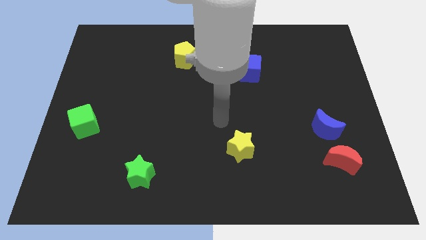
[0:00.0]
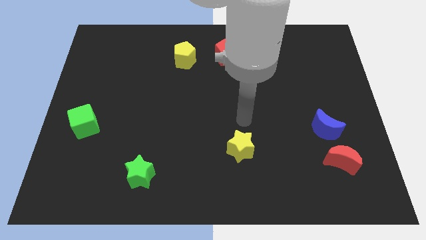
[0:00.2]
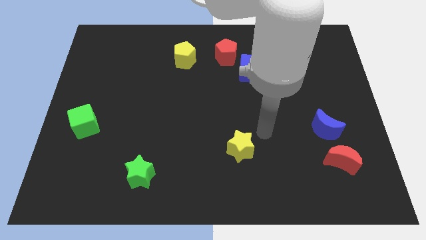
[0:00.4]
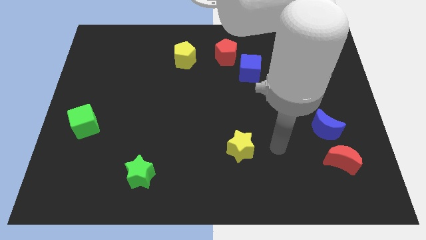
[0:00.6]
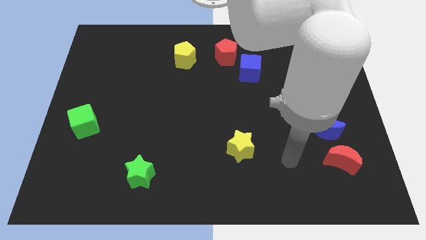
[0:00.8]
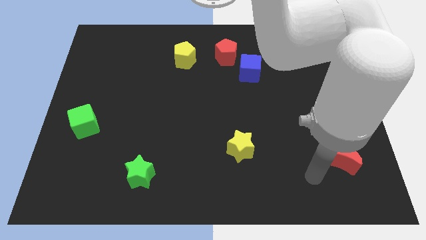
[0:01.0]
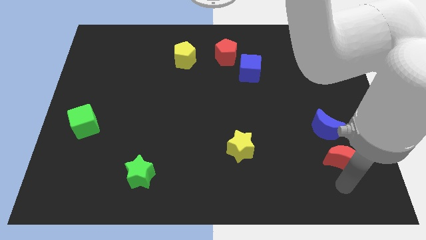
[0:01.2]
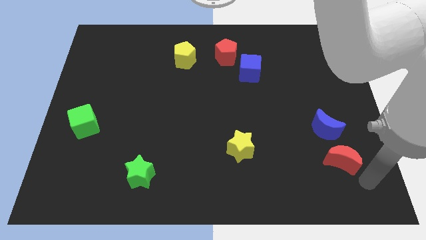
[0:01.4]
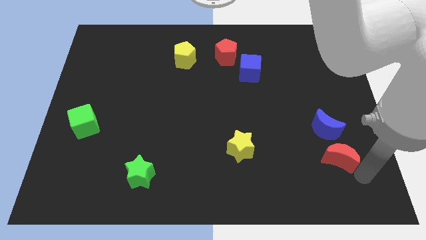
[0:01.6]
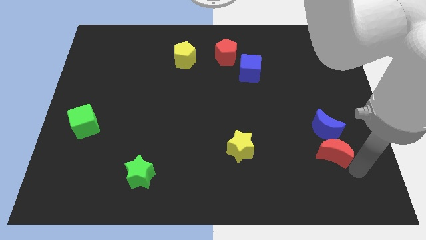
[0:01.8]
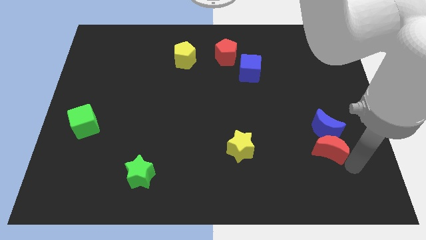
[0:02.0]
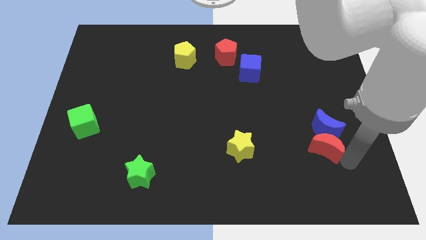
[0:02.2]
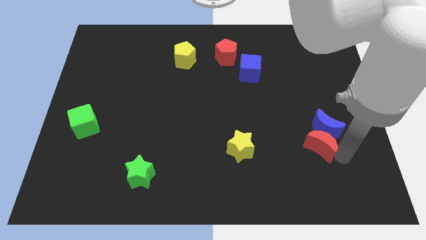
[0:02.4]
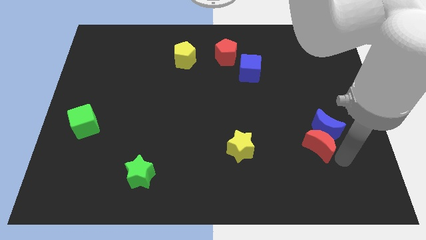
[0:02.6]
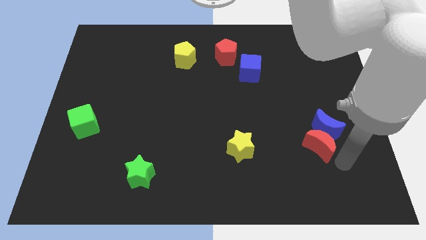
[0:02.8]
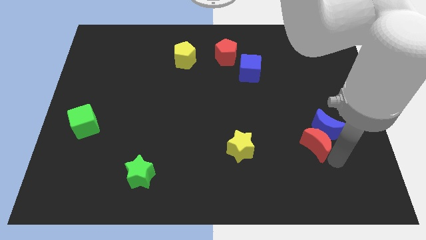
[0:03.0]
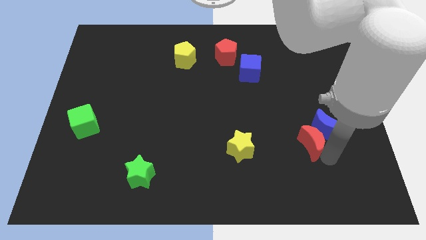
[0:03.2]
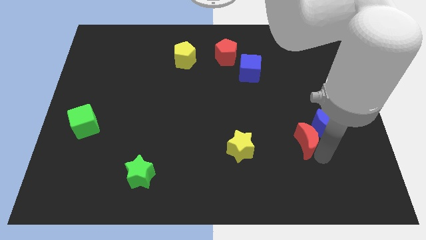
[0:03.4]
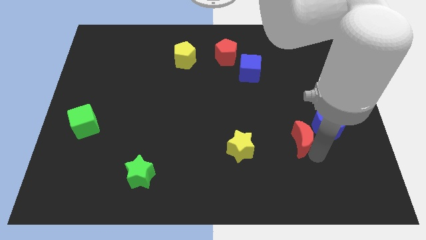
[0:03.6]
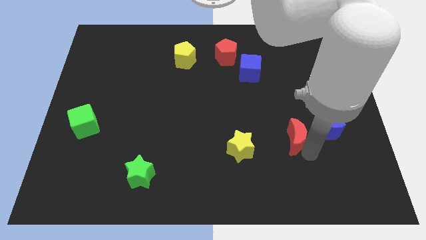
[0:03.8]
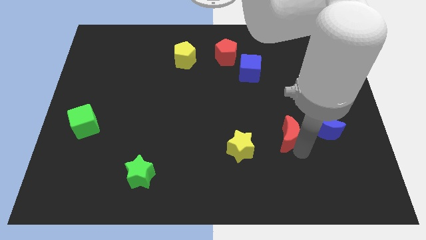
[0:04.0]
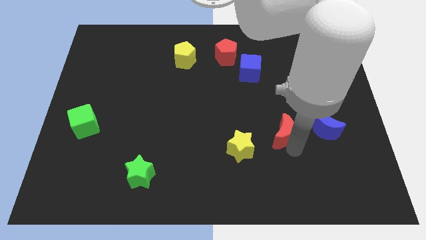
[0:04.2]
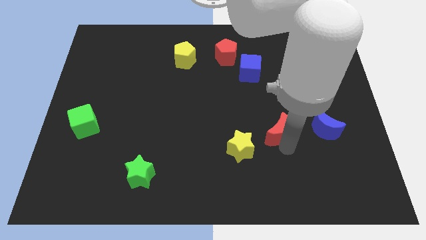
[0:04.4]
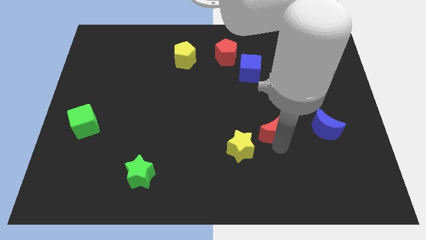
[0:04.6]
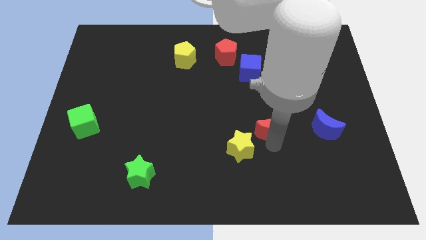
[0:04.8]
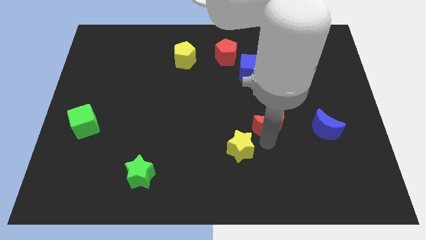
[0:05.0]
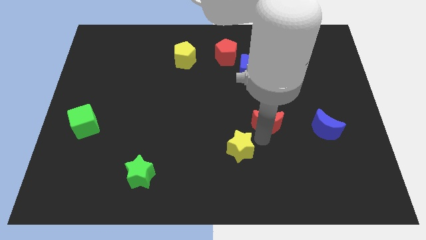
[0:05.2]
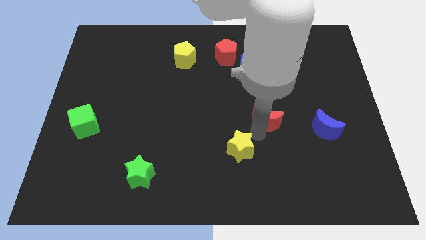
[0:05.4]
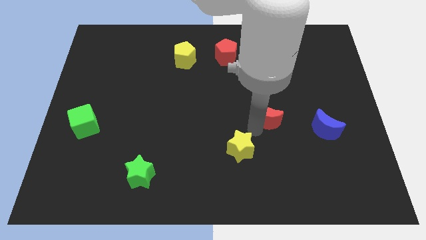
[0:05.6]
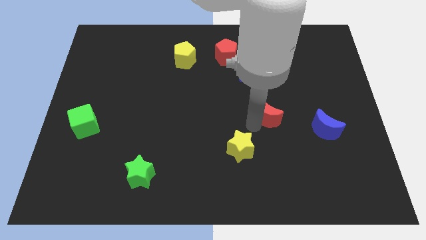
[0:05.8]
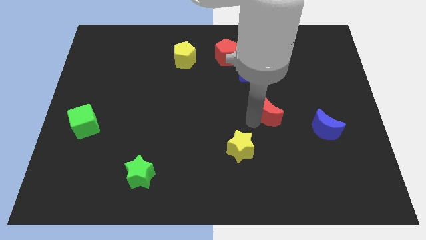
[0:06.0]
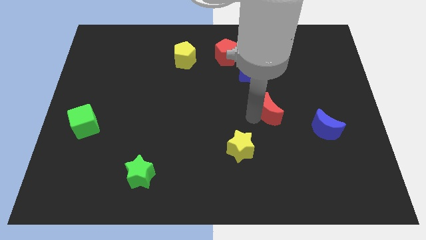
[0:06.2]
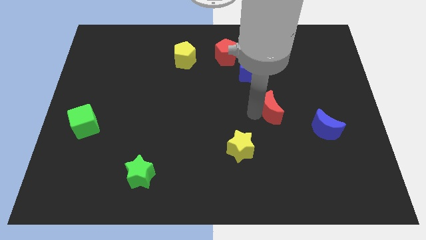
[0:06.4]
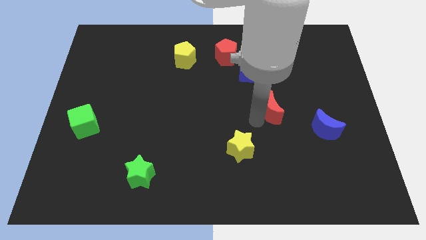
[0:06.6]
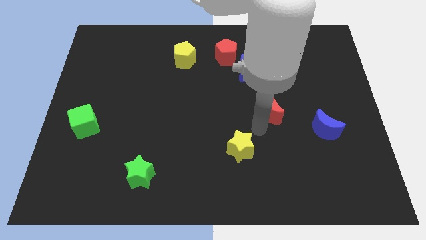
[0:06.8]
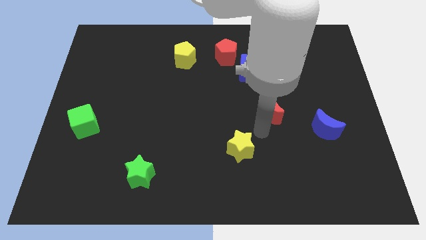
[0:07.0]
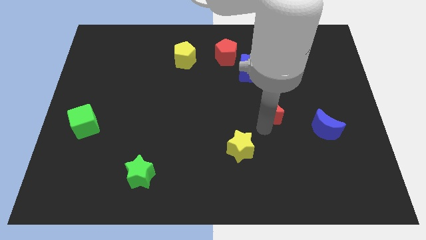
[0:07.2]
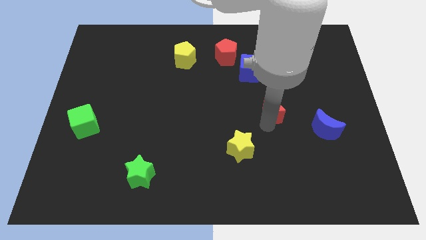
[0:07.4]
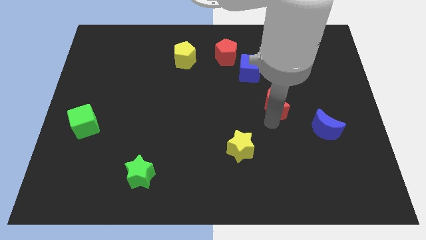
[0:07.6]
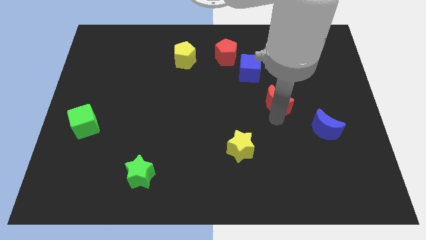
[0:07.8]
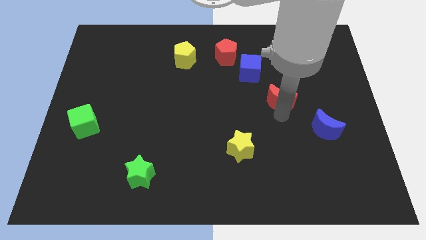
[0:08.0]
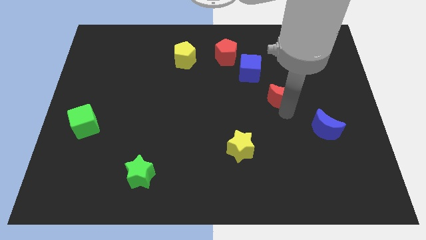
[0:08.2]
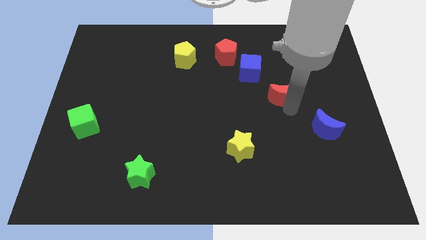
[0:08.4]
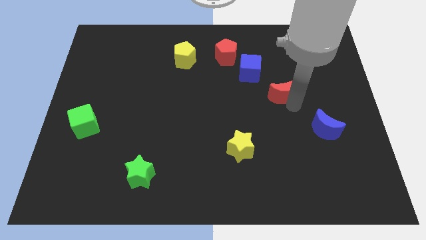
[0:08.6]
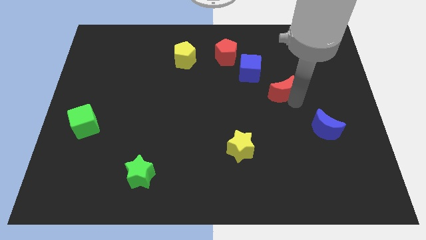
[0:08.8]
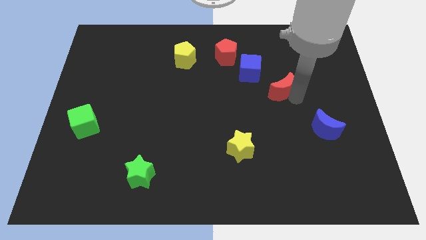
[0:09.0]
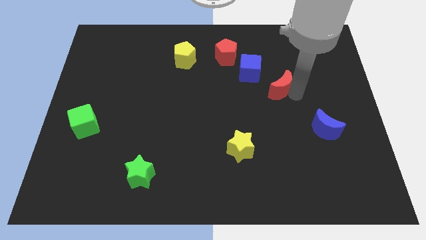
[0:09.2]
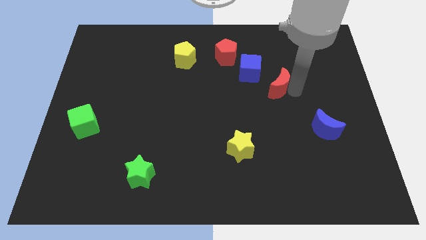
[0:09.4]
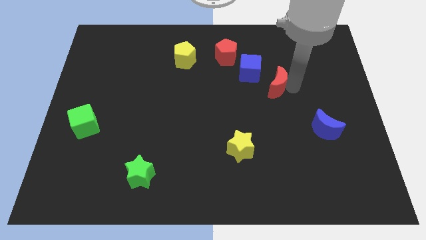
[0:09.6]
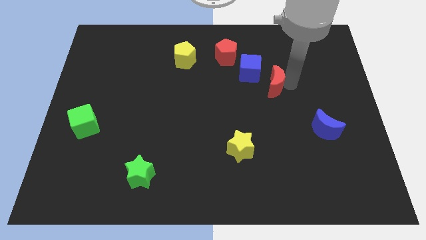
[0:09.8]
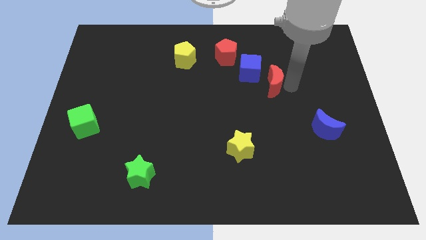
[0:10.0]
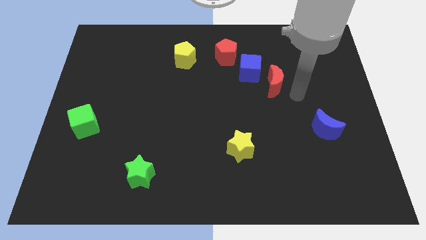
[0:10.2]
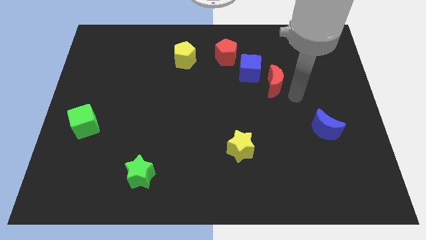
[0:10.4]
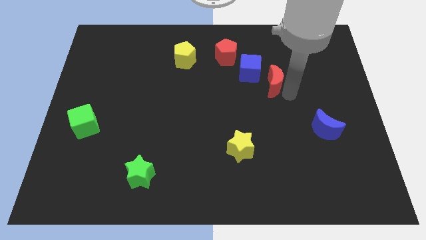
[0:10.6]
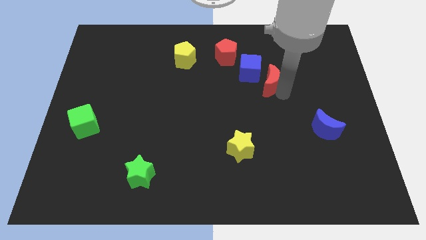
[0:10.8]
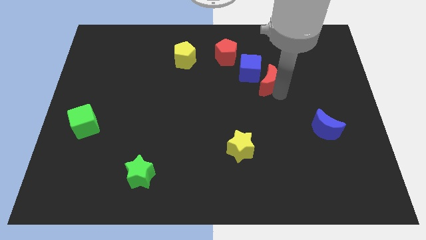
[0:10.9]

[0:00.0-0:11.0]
push the red moon towards the blue cube

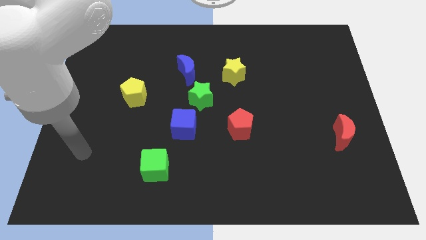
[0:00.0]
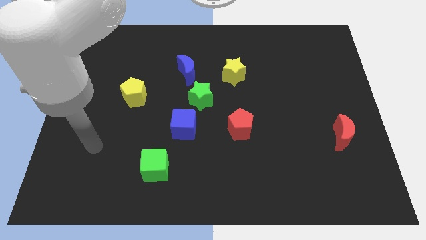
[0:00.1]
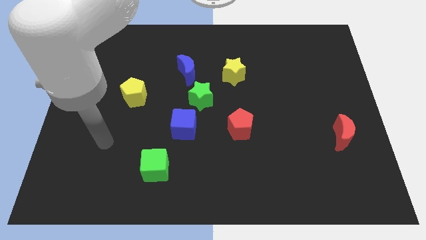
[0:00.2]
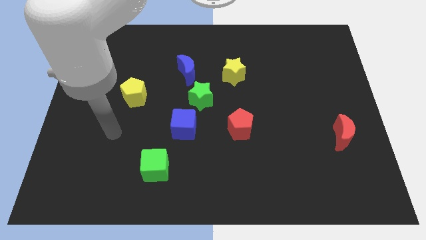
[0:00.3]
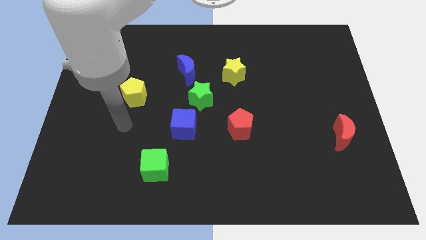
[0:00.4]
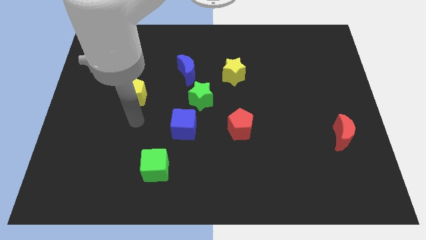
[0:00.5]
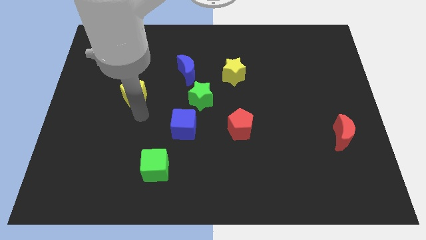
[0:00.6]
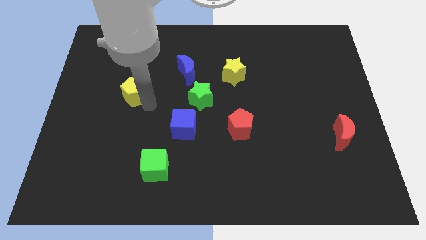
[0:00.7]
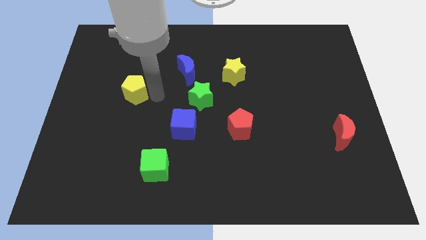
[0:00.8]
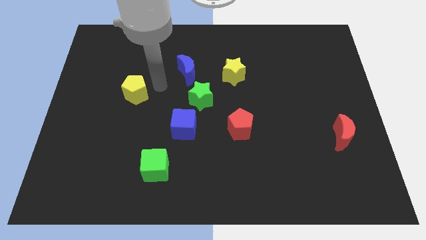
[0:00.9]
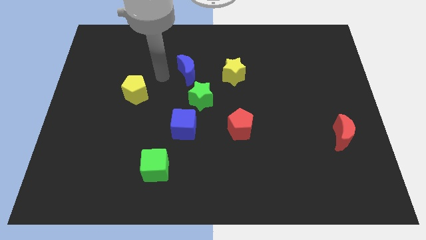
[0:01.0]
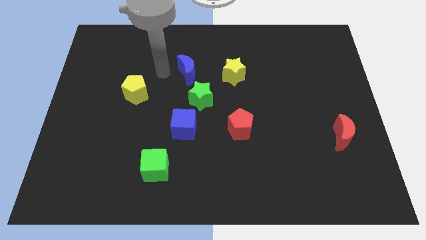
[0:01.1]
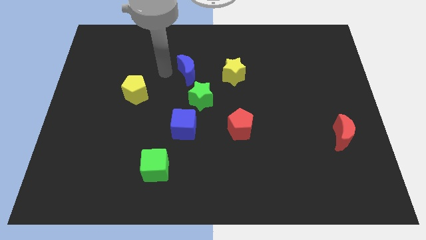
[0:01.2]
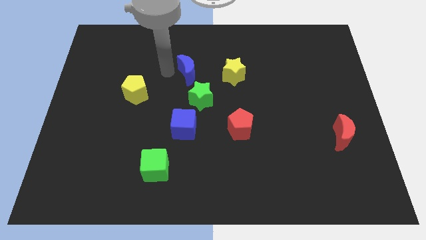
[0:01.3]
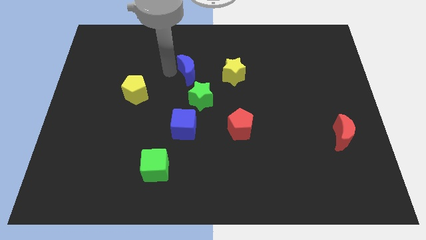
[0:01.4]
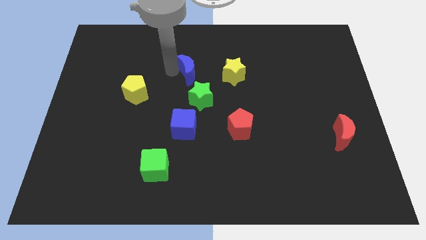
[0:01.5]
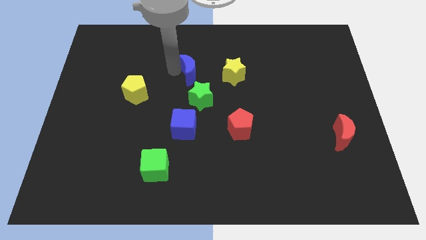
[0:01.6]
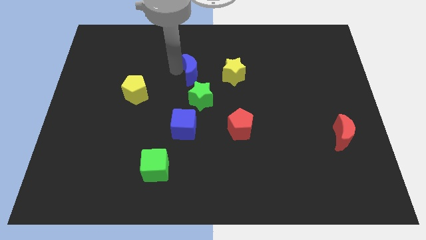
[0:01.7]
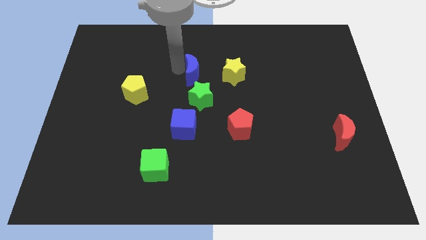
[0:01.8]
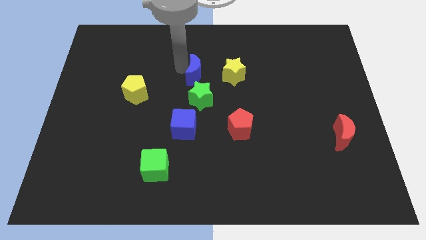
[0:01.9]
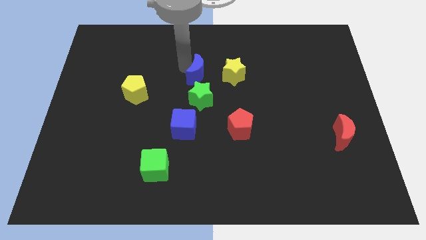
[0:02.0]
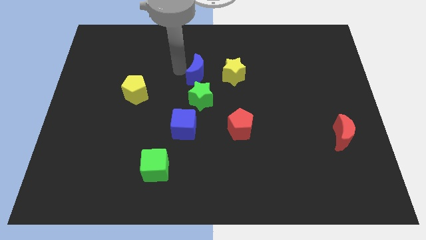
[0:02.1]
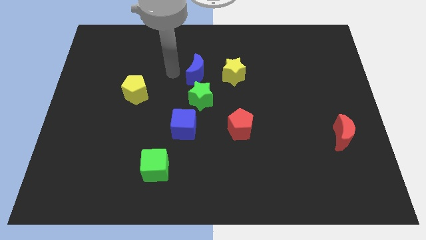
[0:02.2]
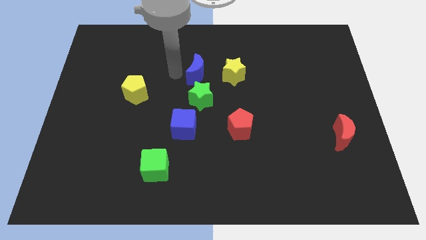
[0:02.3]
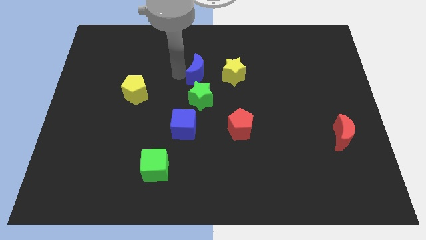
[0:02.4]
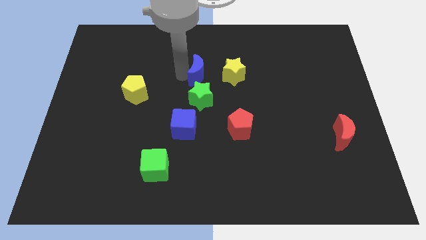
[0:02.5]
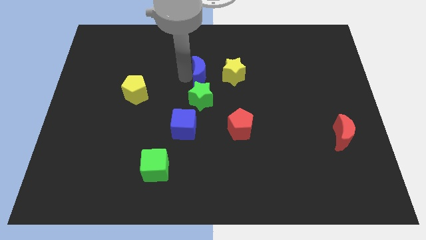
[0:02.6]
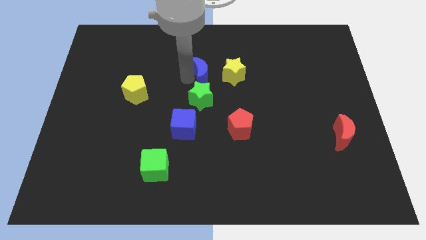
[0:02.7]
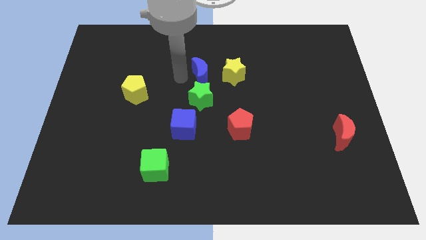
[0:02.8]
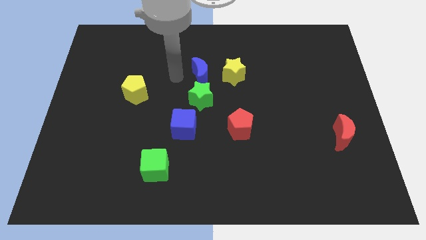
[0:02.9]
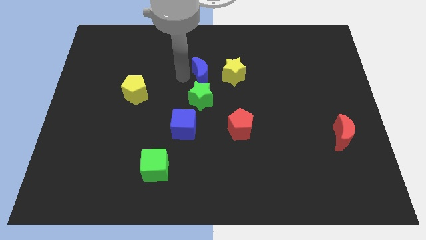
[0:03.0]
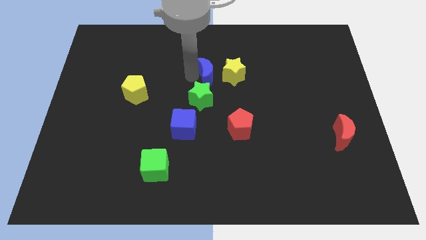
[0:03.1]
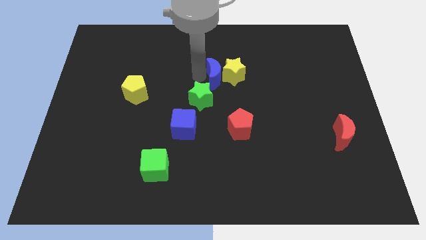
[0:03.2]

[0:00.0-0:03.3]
move the blue moon towards the yellow star
